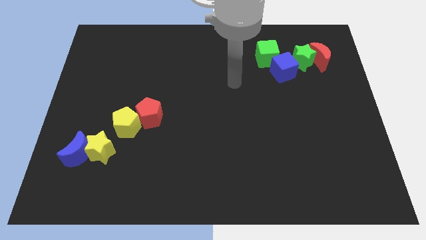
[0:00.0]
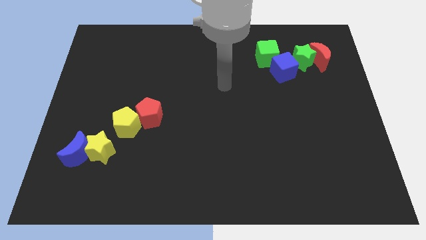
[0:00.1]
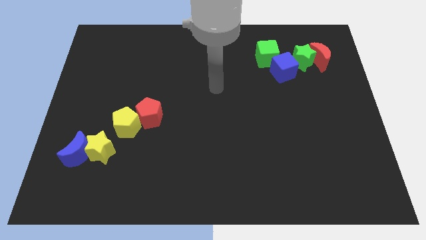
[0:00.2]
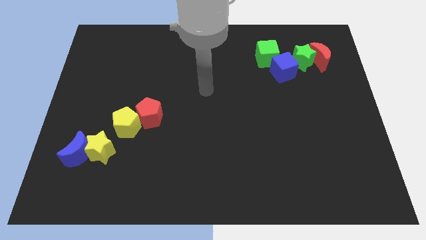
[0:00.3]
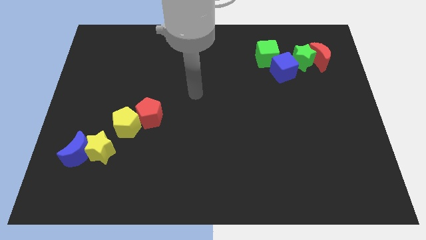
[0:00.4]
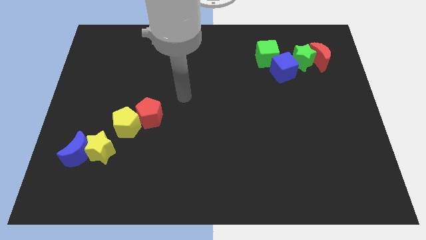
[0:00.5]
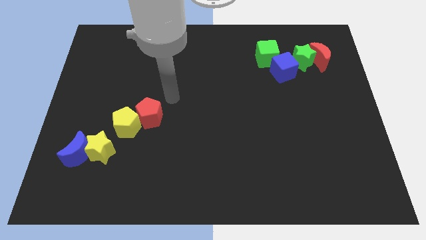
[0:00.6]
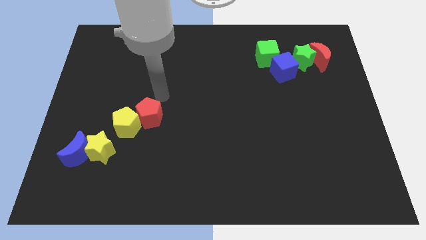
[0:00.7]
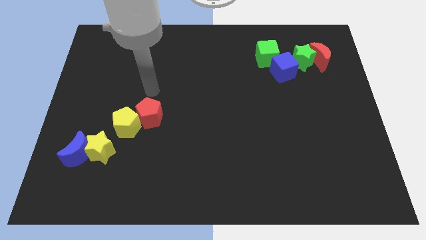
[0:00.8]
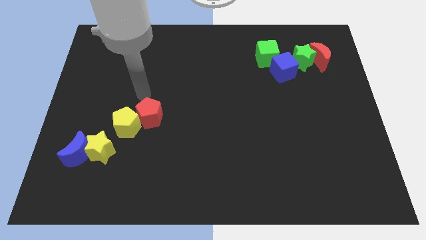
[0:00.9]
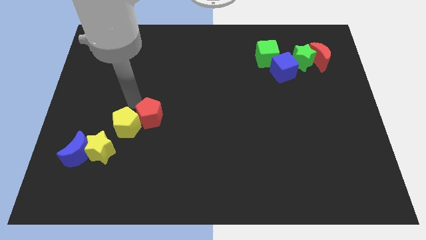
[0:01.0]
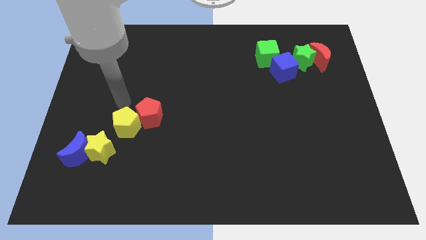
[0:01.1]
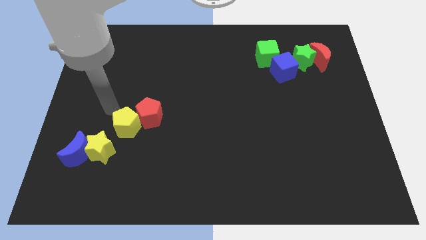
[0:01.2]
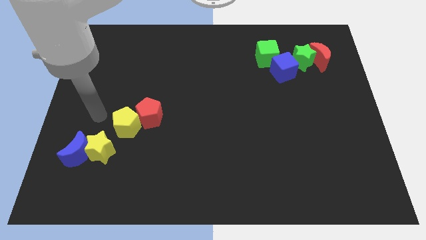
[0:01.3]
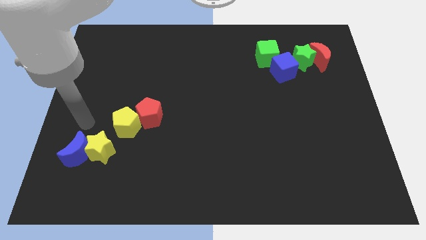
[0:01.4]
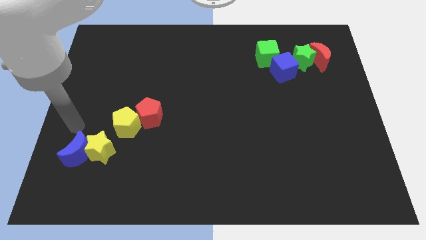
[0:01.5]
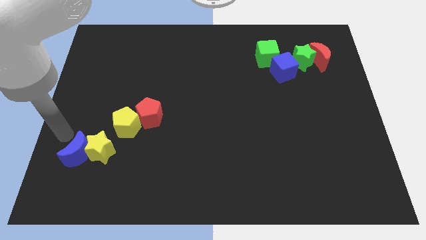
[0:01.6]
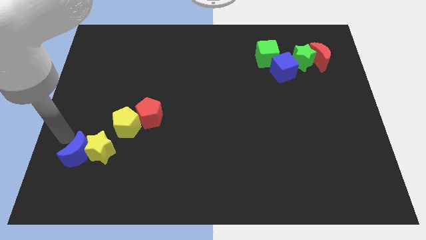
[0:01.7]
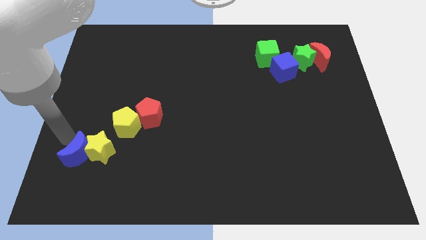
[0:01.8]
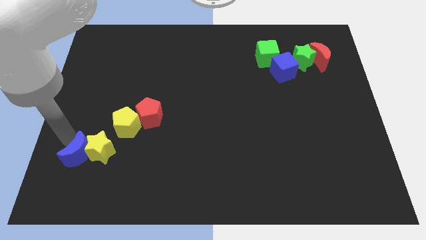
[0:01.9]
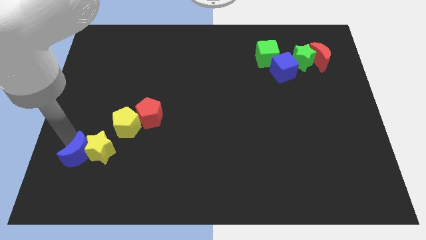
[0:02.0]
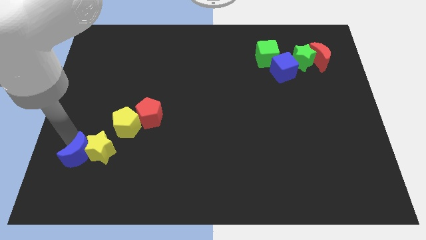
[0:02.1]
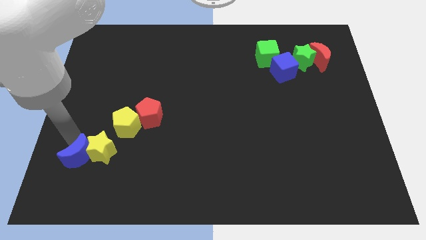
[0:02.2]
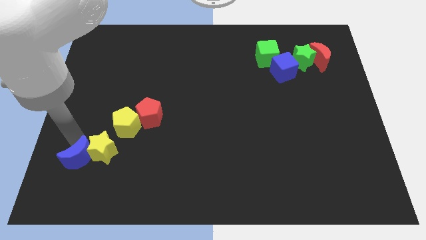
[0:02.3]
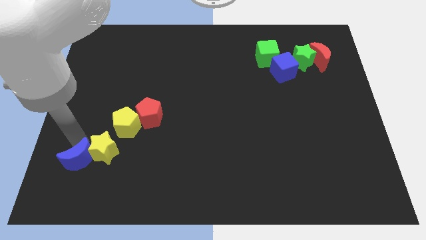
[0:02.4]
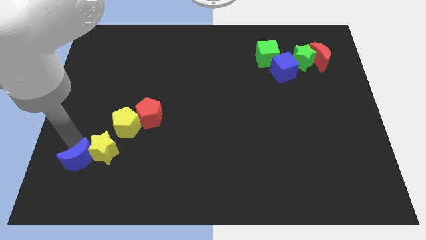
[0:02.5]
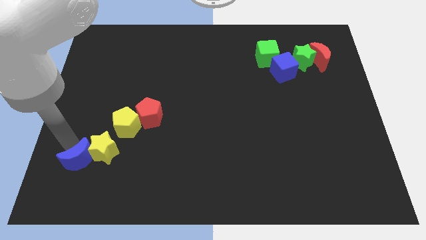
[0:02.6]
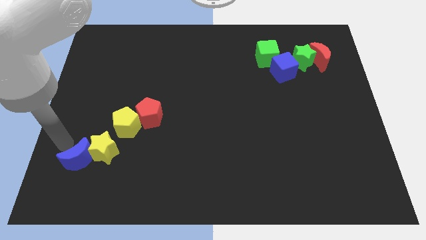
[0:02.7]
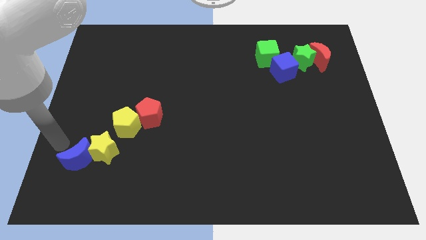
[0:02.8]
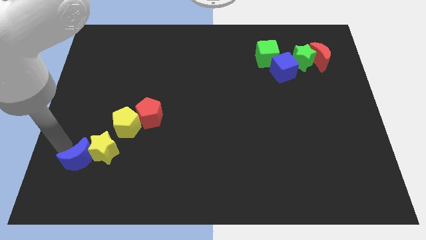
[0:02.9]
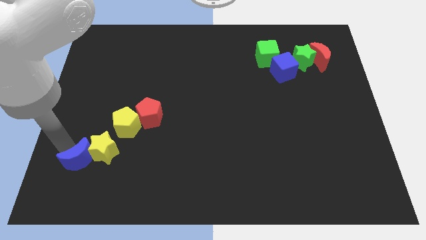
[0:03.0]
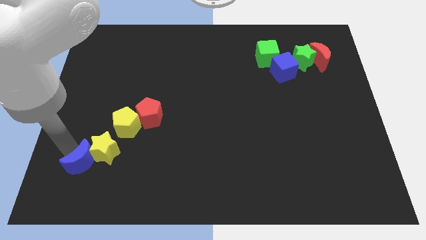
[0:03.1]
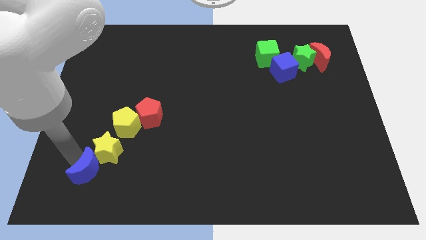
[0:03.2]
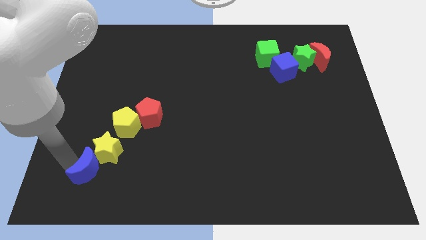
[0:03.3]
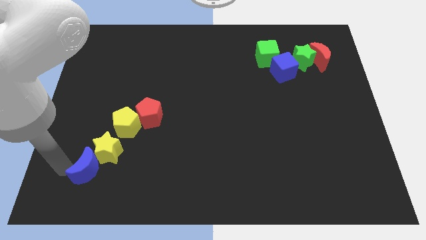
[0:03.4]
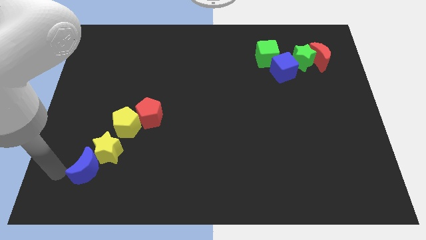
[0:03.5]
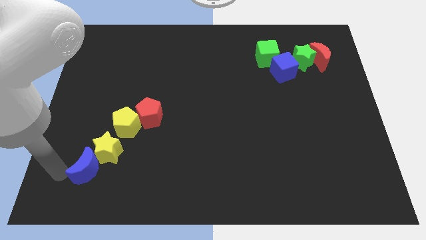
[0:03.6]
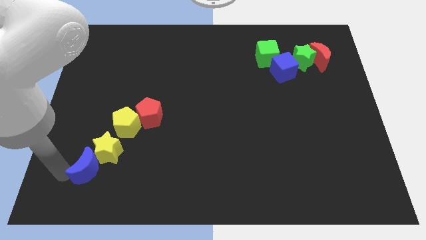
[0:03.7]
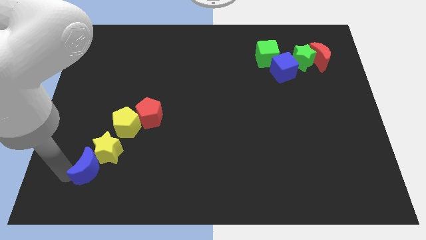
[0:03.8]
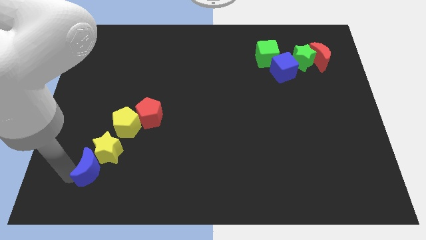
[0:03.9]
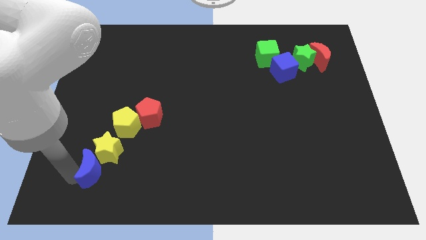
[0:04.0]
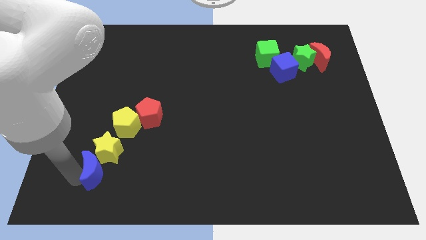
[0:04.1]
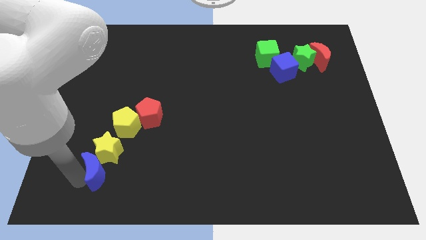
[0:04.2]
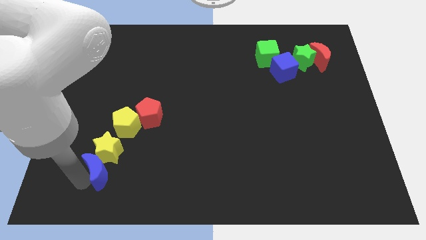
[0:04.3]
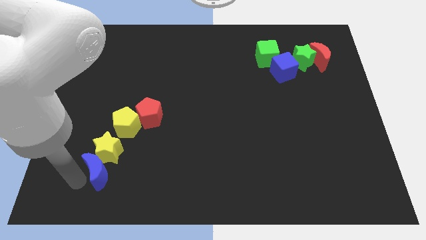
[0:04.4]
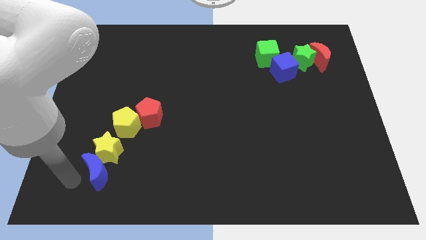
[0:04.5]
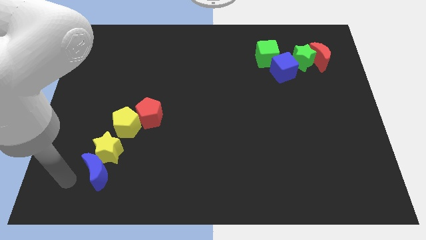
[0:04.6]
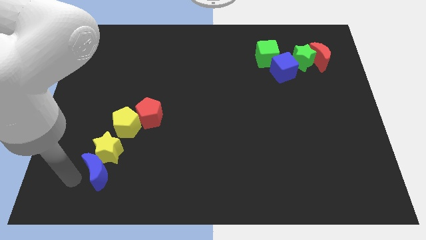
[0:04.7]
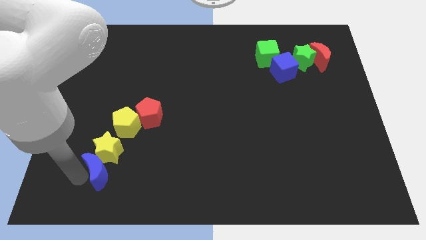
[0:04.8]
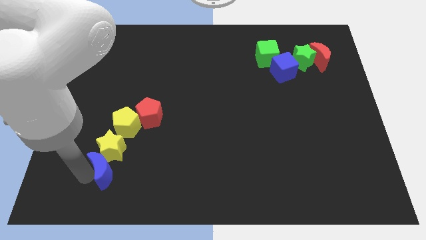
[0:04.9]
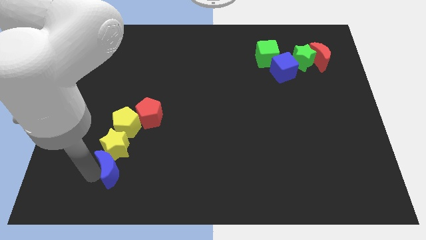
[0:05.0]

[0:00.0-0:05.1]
move the blue moon a bit to the right

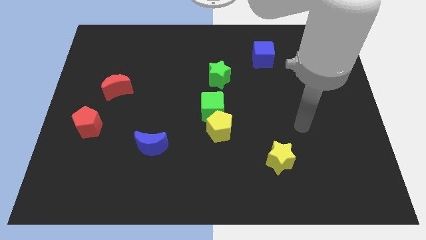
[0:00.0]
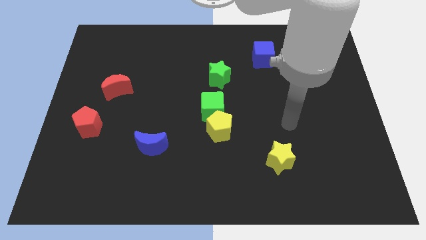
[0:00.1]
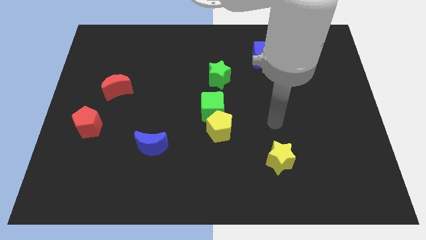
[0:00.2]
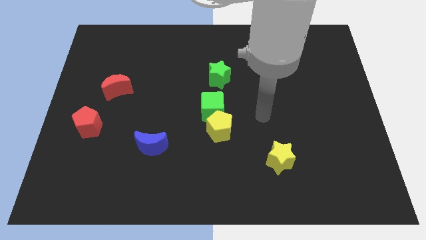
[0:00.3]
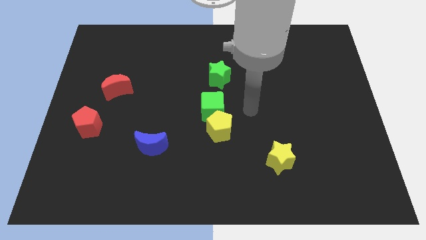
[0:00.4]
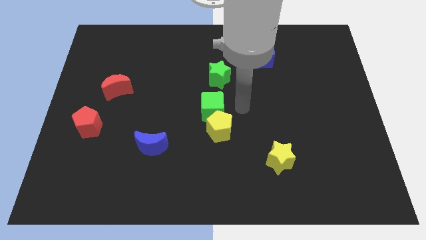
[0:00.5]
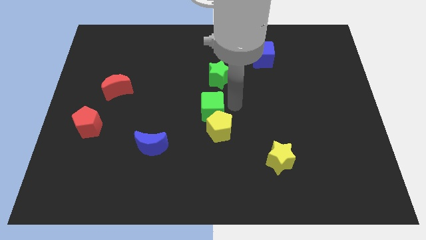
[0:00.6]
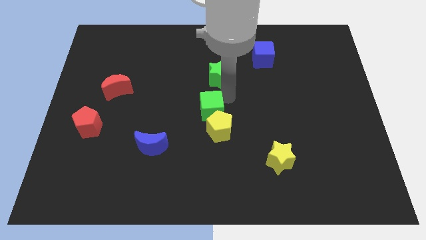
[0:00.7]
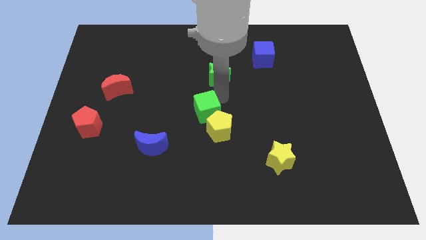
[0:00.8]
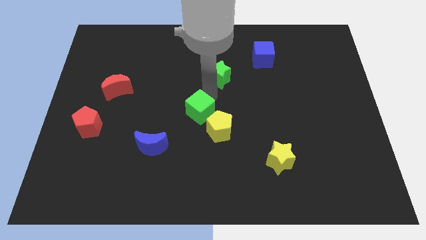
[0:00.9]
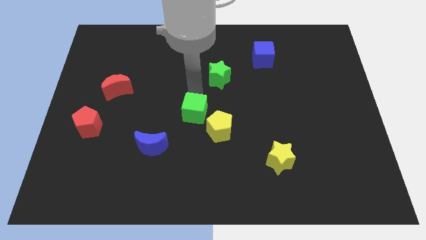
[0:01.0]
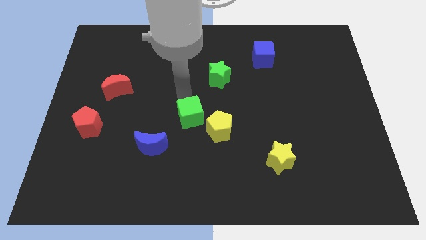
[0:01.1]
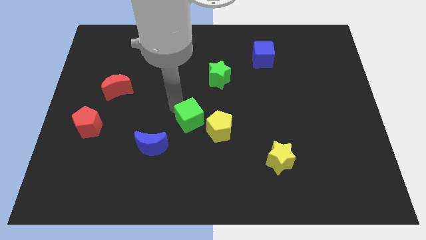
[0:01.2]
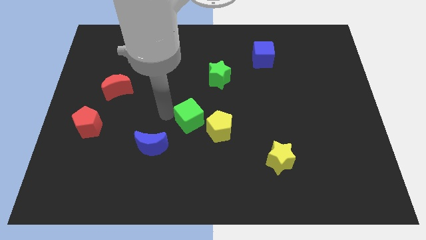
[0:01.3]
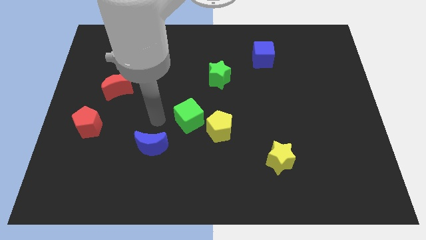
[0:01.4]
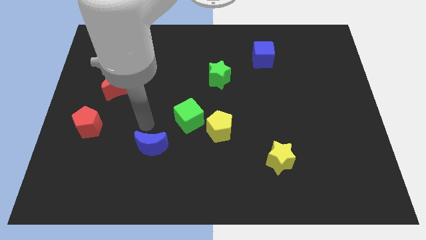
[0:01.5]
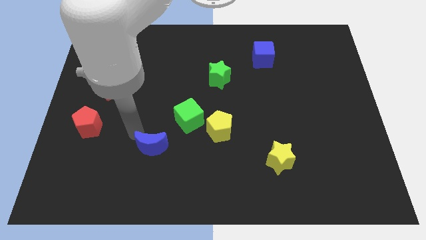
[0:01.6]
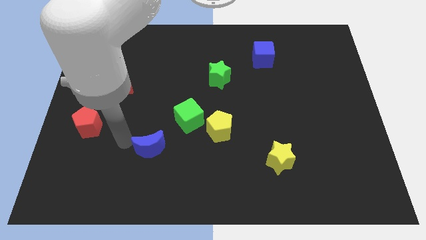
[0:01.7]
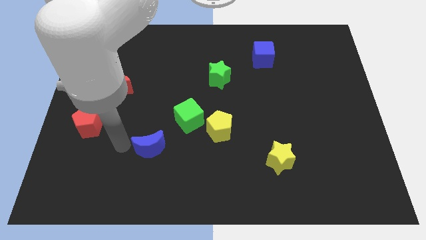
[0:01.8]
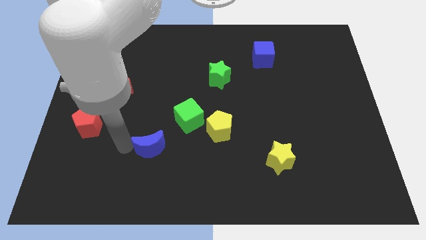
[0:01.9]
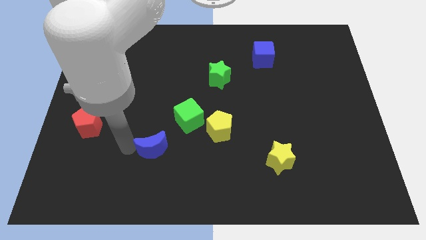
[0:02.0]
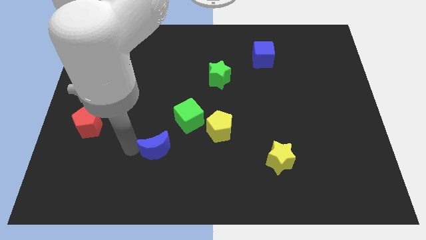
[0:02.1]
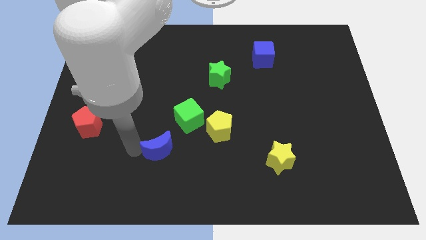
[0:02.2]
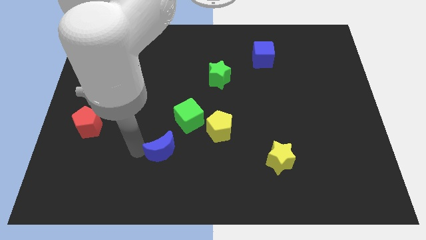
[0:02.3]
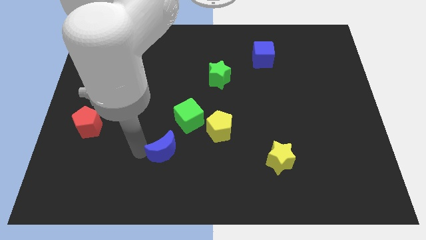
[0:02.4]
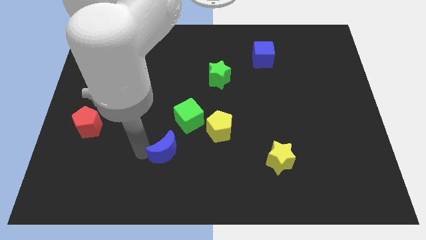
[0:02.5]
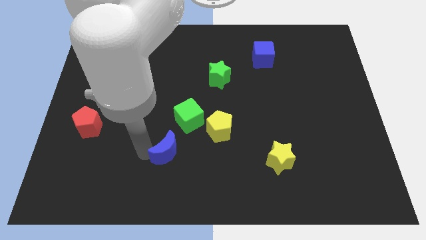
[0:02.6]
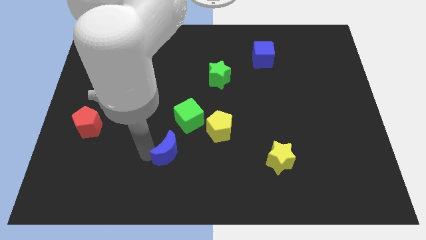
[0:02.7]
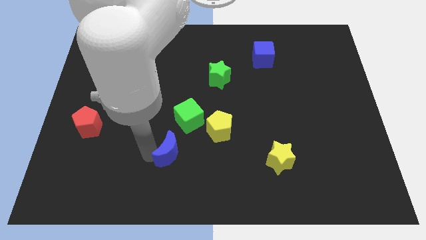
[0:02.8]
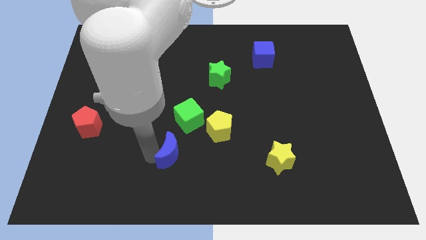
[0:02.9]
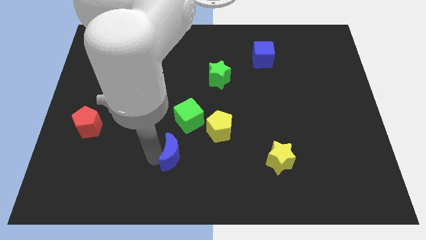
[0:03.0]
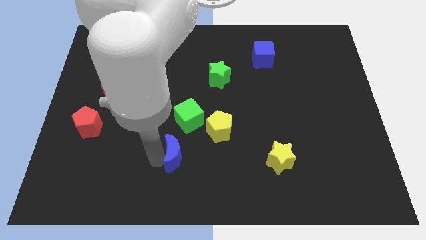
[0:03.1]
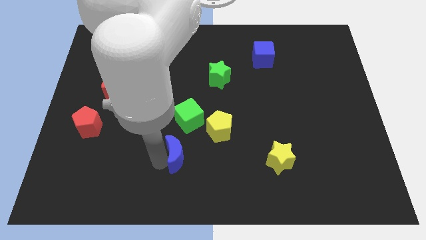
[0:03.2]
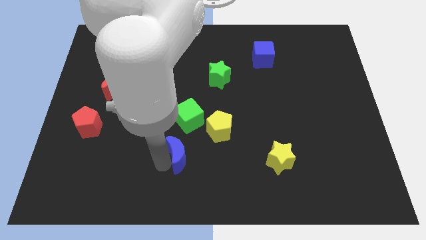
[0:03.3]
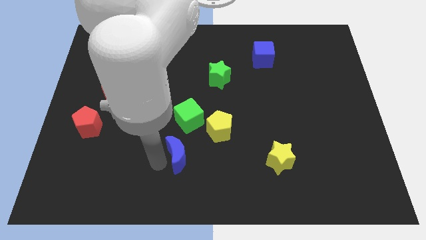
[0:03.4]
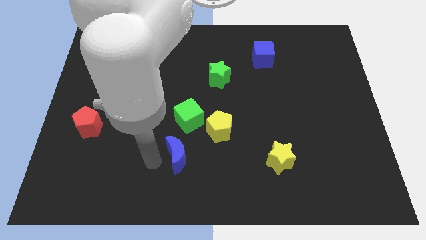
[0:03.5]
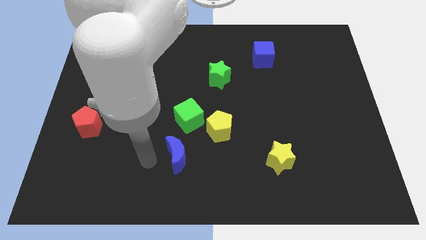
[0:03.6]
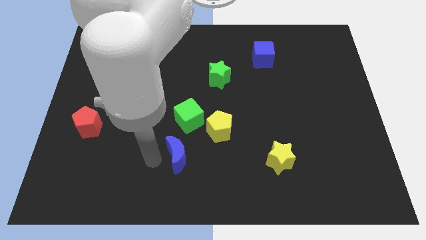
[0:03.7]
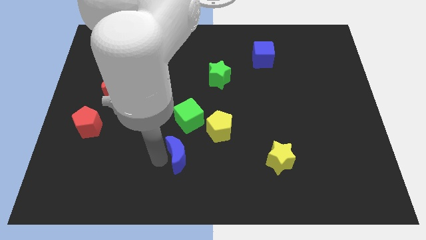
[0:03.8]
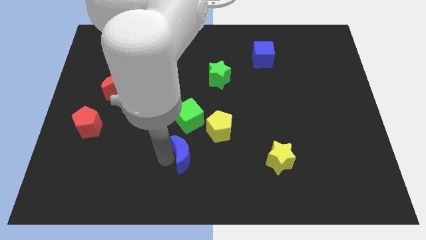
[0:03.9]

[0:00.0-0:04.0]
slide the blue moon a bit to the right
